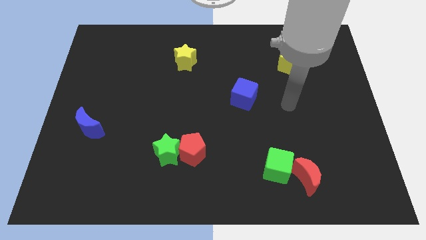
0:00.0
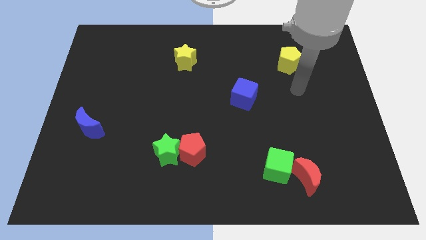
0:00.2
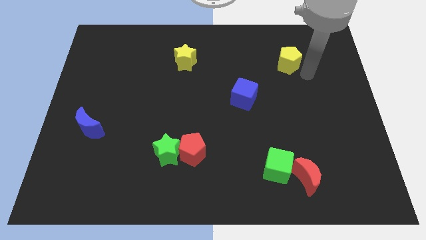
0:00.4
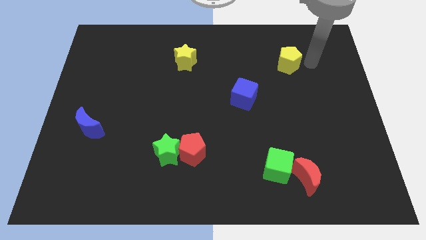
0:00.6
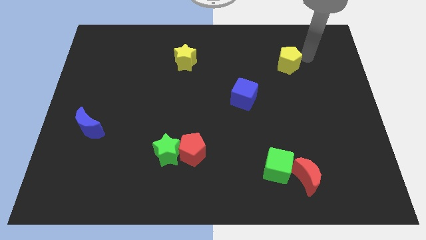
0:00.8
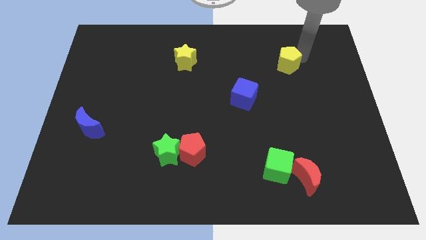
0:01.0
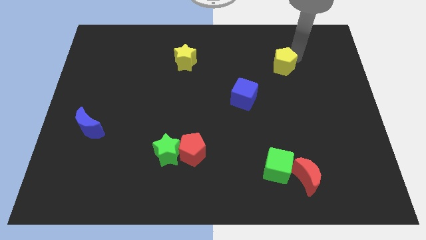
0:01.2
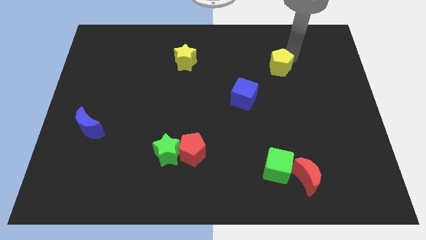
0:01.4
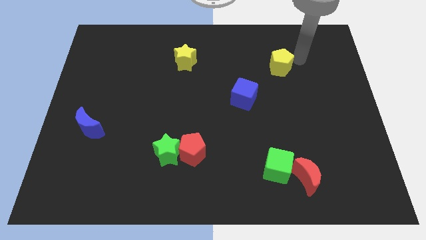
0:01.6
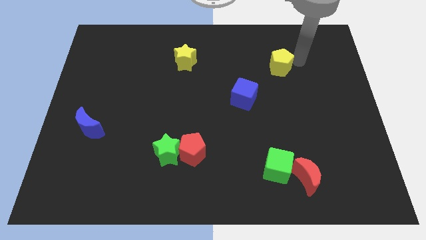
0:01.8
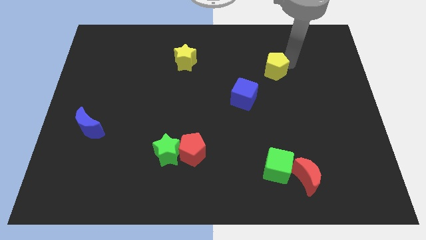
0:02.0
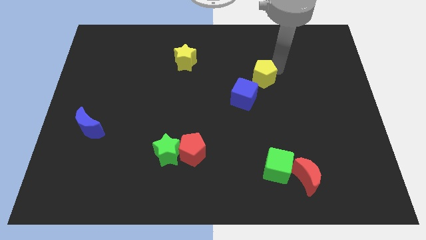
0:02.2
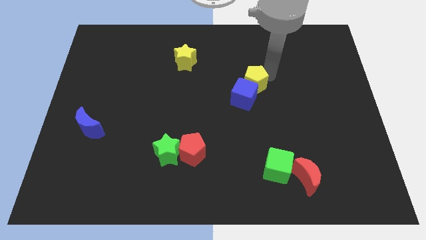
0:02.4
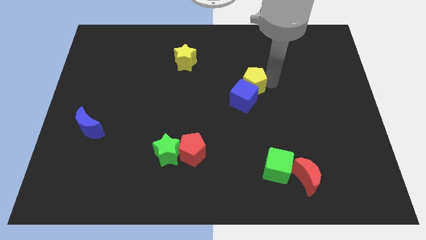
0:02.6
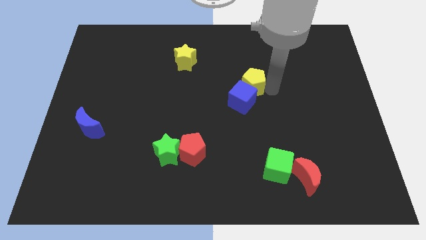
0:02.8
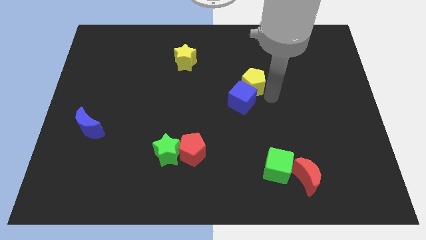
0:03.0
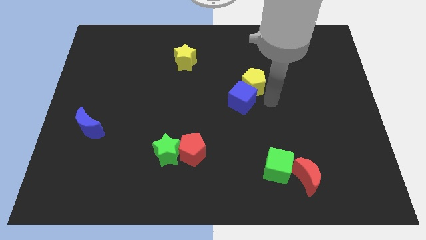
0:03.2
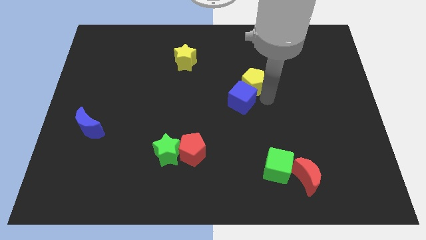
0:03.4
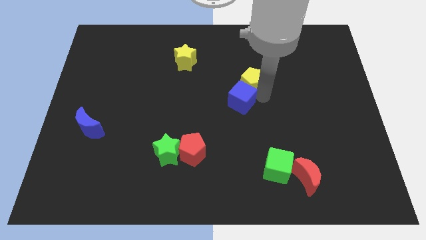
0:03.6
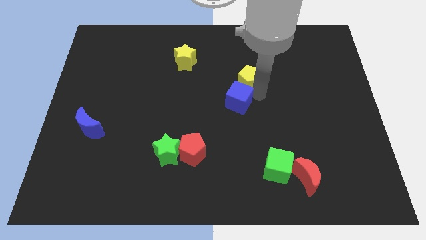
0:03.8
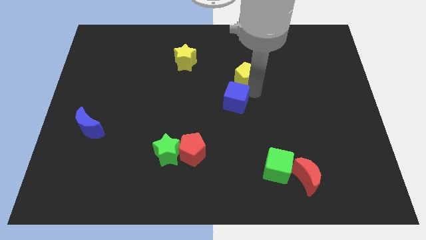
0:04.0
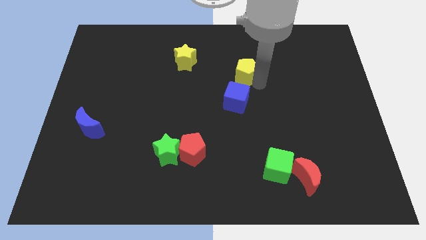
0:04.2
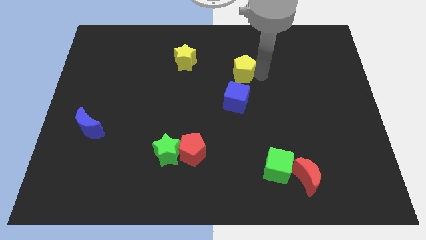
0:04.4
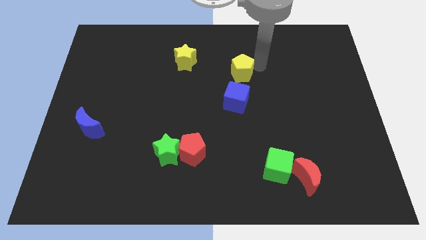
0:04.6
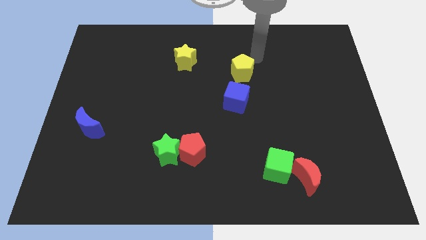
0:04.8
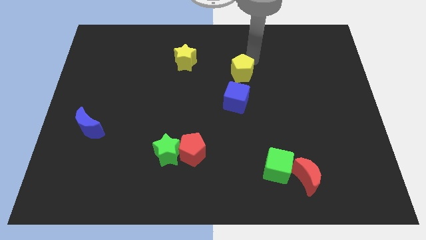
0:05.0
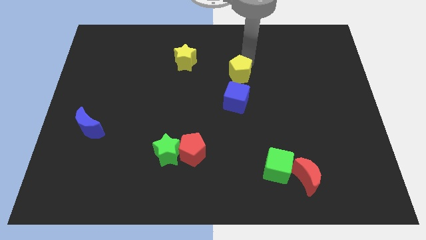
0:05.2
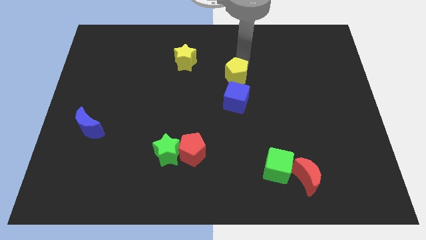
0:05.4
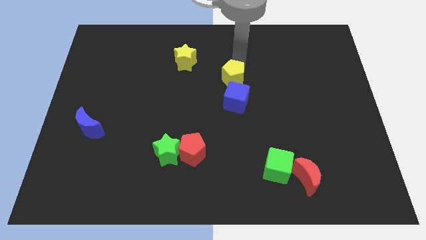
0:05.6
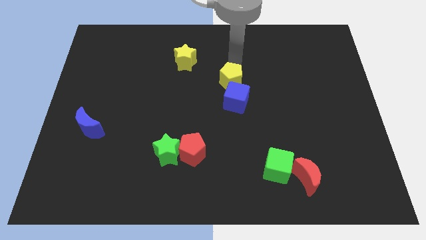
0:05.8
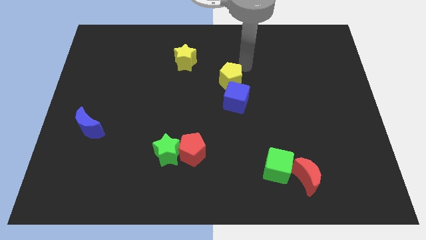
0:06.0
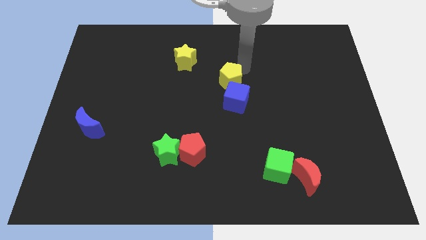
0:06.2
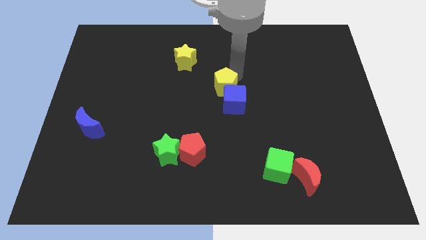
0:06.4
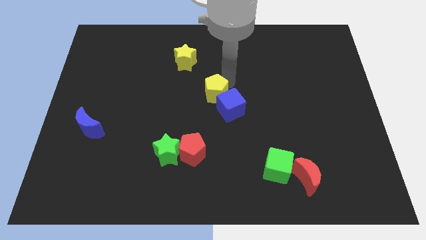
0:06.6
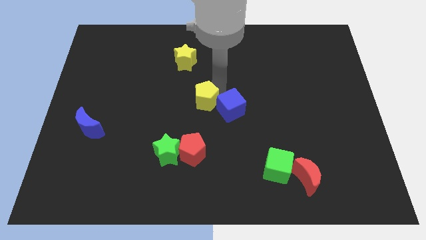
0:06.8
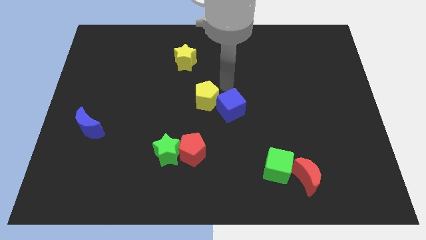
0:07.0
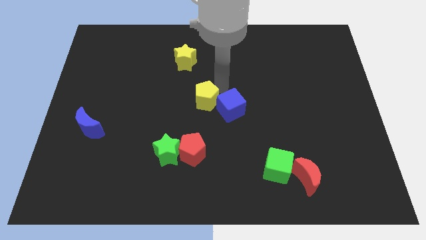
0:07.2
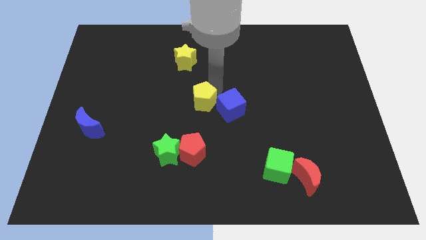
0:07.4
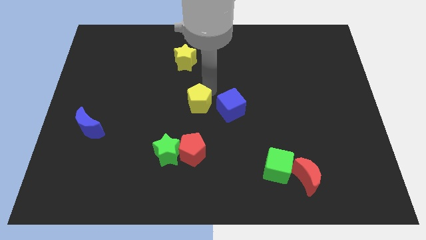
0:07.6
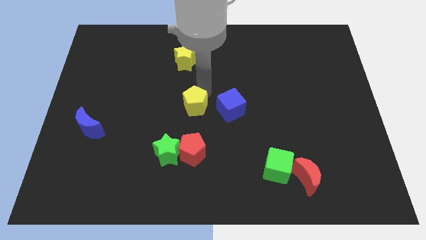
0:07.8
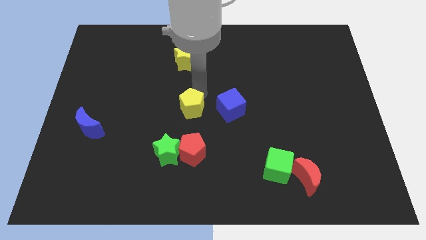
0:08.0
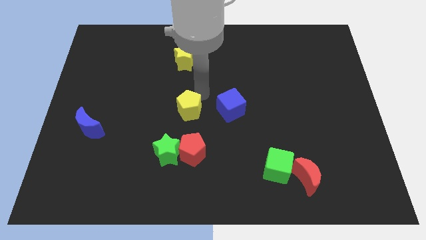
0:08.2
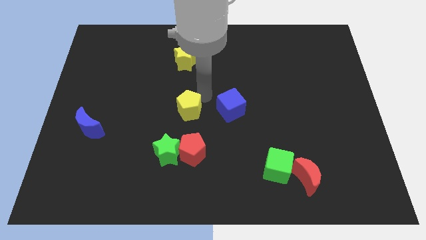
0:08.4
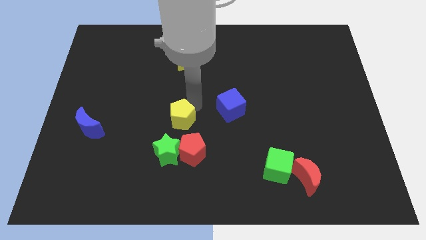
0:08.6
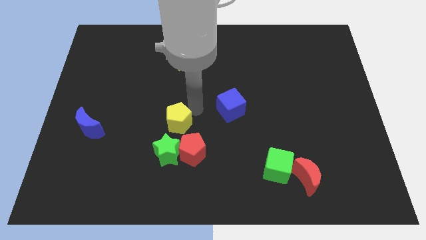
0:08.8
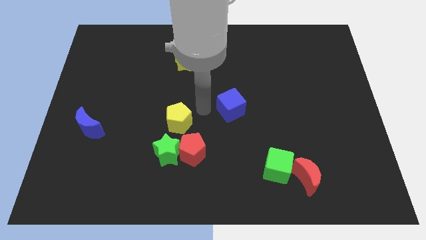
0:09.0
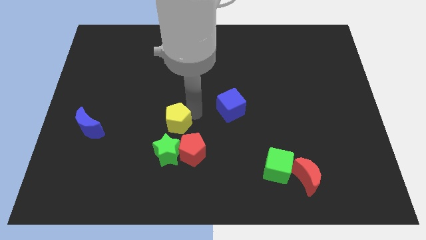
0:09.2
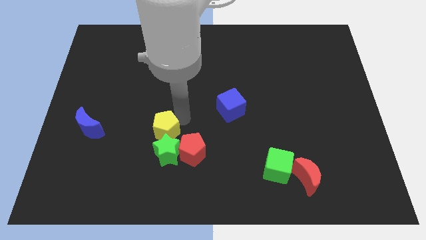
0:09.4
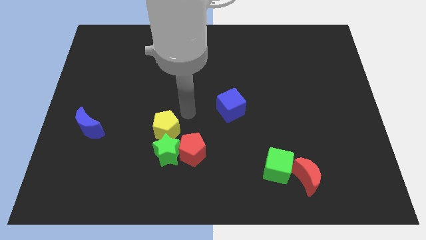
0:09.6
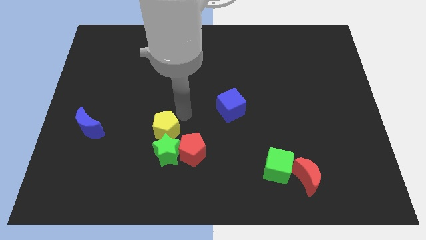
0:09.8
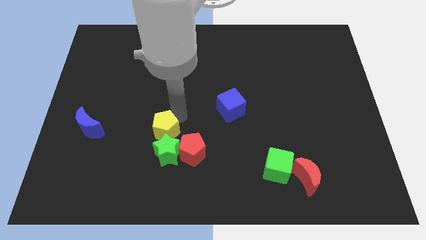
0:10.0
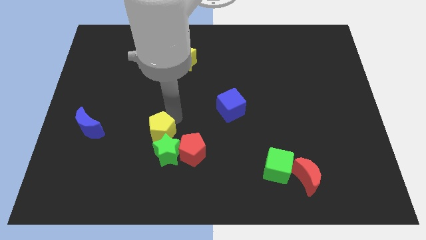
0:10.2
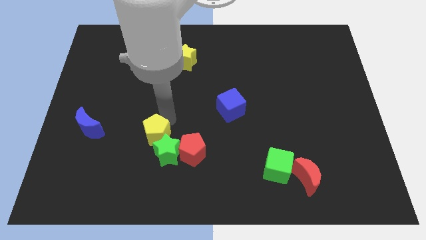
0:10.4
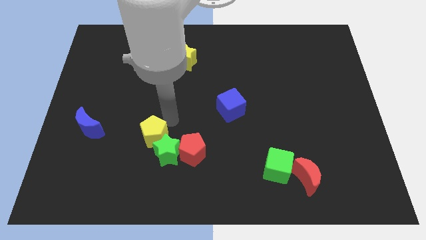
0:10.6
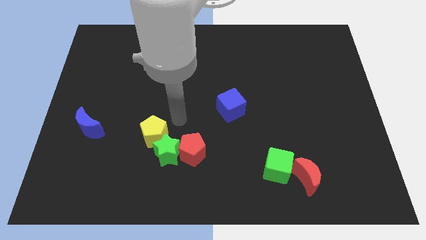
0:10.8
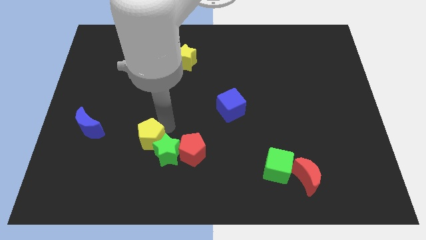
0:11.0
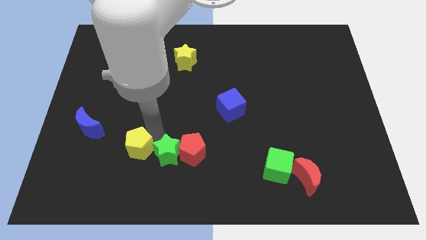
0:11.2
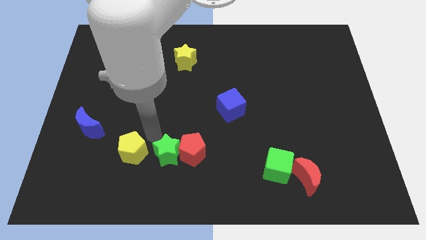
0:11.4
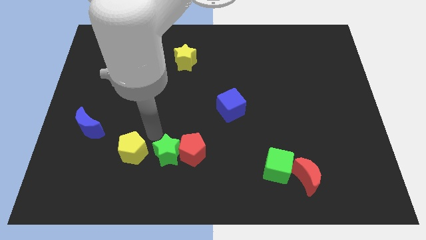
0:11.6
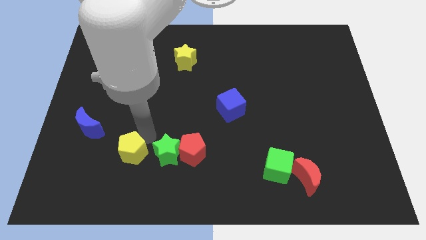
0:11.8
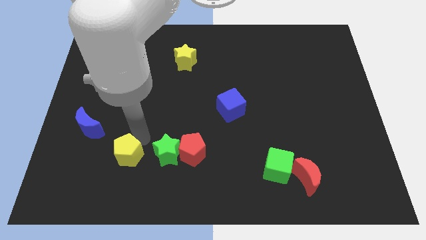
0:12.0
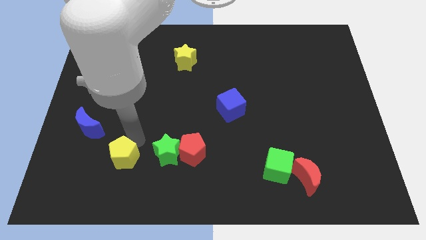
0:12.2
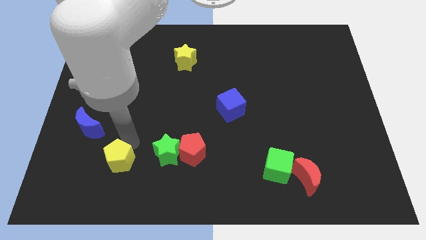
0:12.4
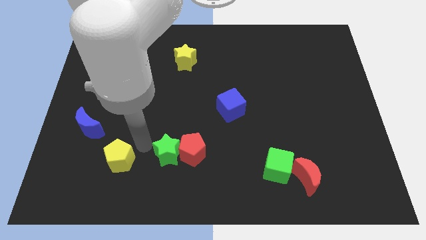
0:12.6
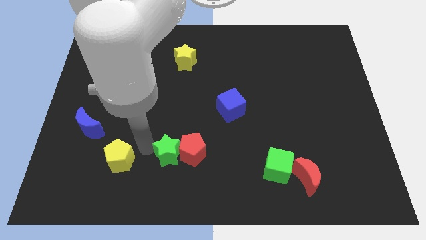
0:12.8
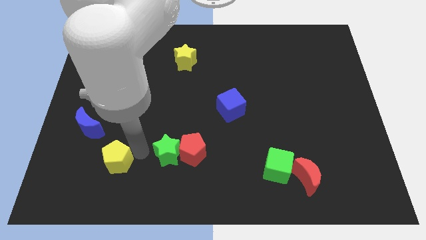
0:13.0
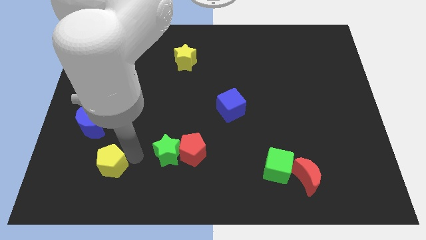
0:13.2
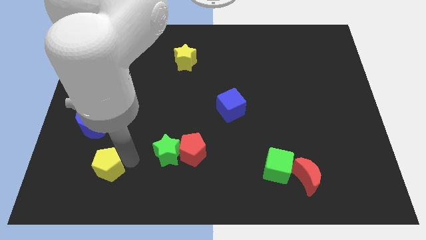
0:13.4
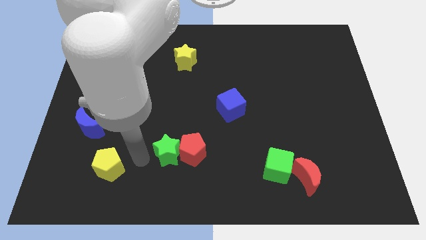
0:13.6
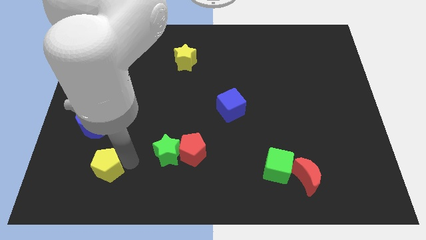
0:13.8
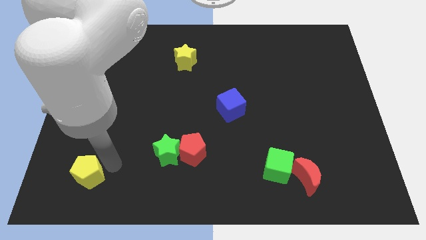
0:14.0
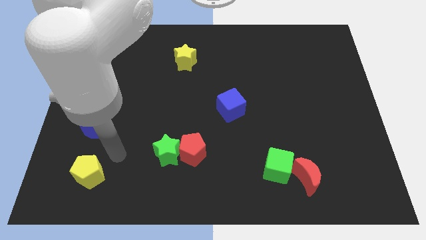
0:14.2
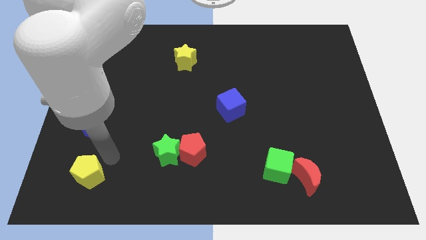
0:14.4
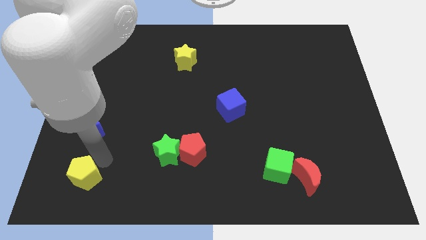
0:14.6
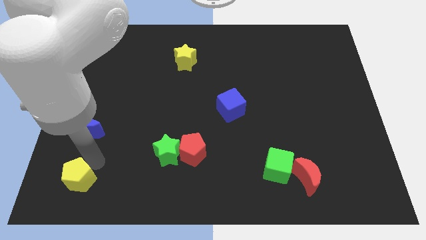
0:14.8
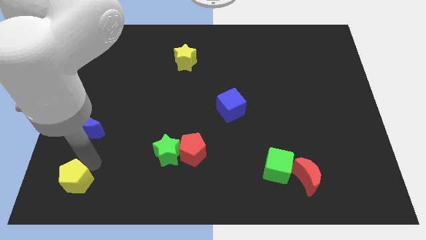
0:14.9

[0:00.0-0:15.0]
push the yellow pentagon to the bottom left
